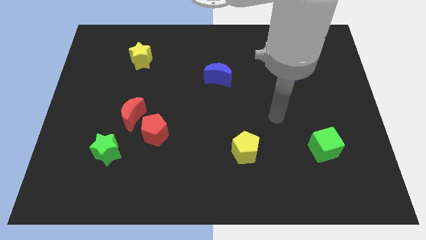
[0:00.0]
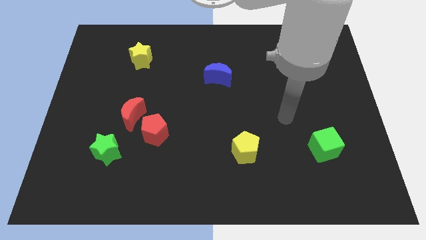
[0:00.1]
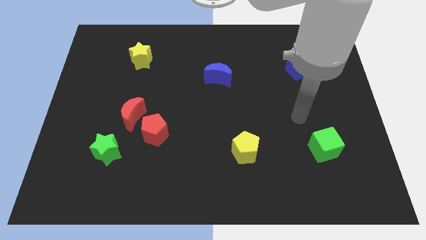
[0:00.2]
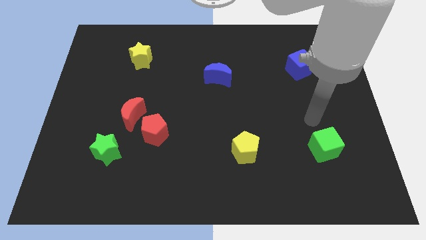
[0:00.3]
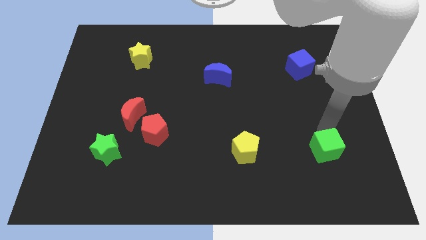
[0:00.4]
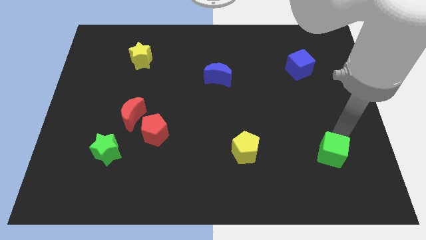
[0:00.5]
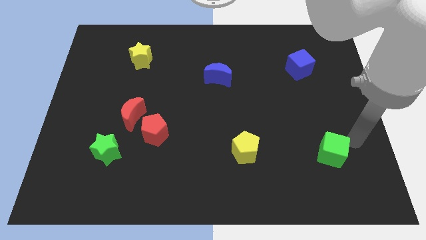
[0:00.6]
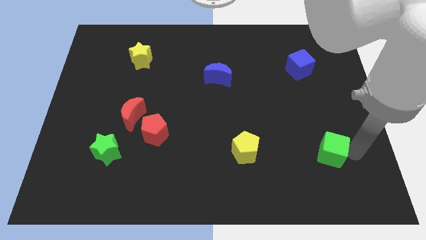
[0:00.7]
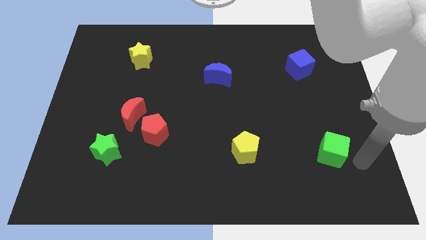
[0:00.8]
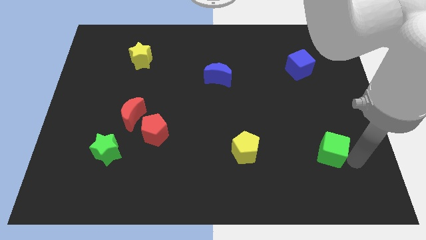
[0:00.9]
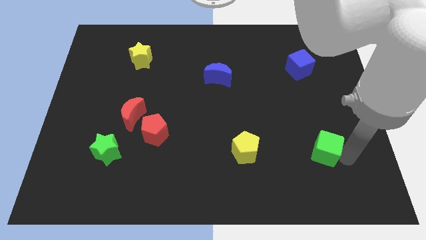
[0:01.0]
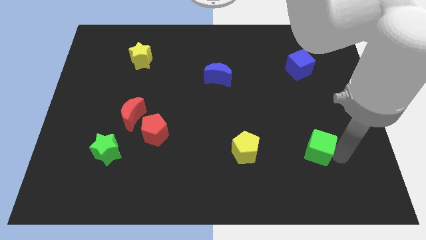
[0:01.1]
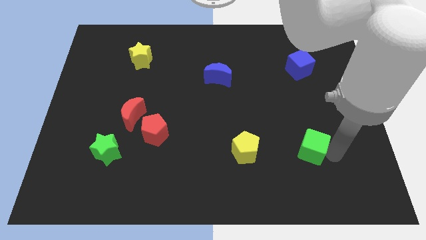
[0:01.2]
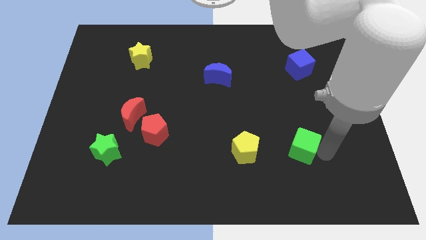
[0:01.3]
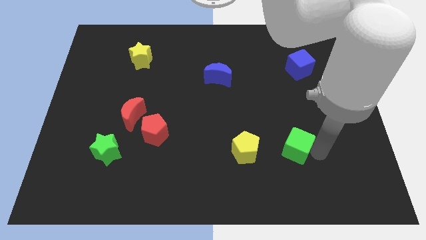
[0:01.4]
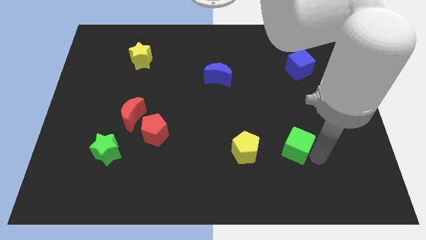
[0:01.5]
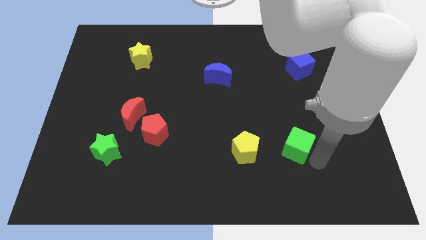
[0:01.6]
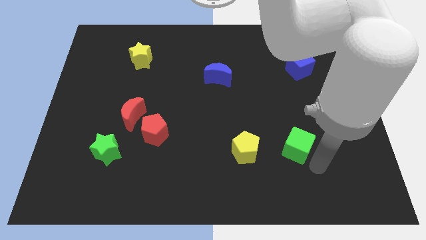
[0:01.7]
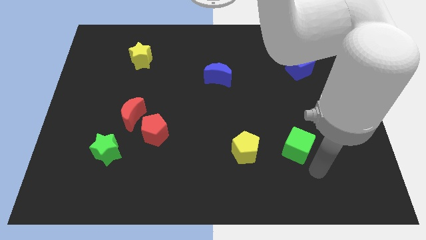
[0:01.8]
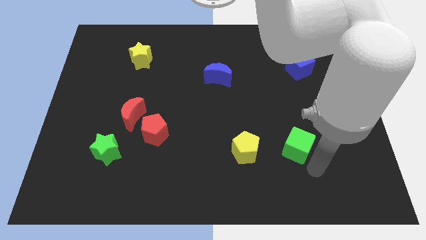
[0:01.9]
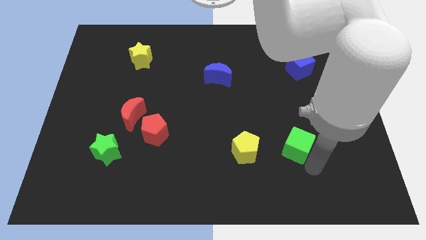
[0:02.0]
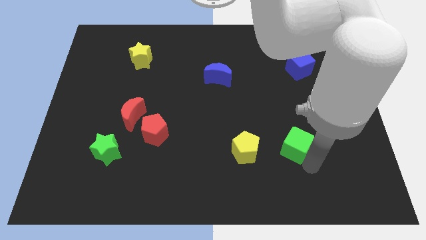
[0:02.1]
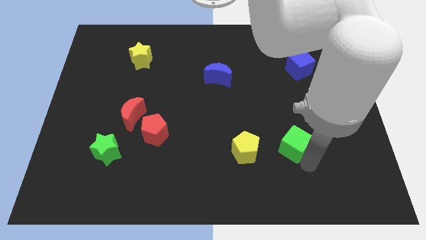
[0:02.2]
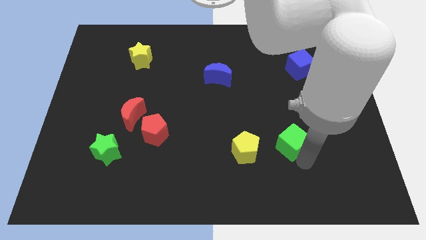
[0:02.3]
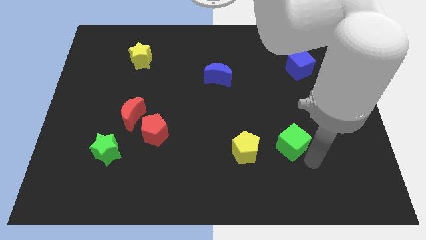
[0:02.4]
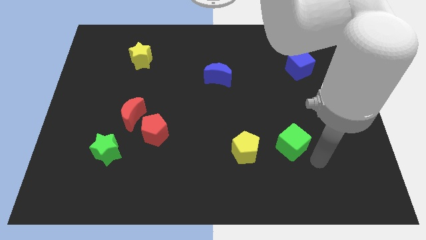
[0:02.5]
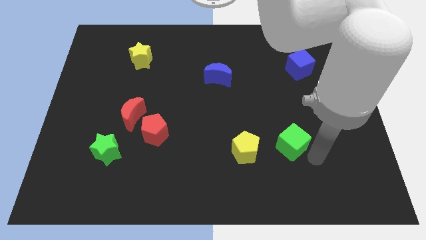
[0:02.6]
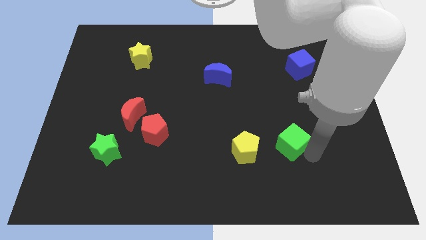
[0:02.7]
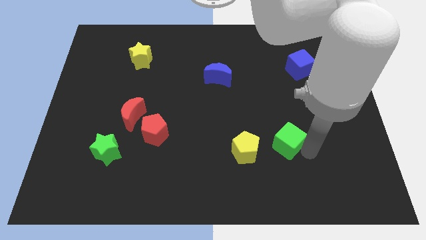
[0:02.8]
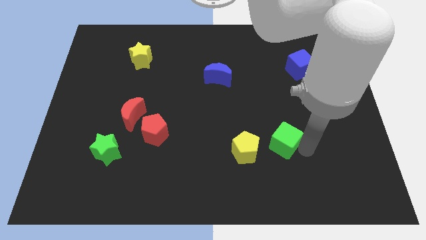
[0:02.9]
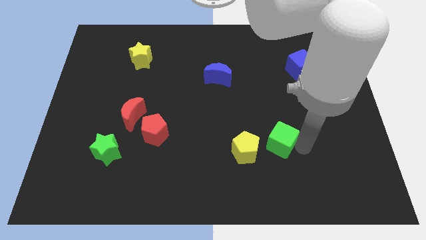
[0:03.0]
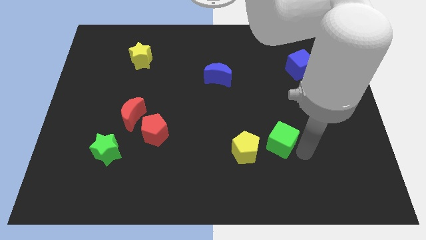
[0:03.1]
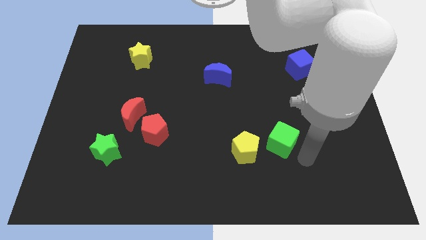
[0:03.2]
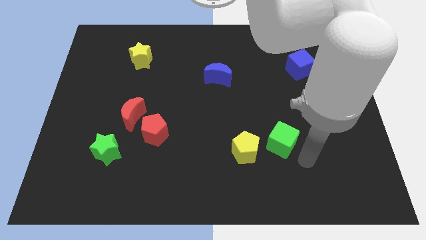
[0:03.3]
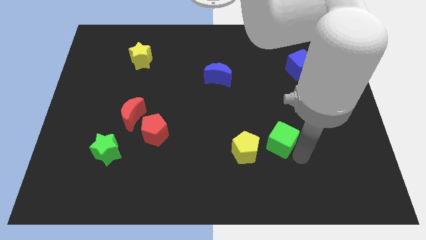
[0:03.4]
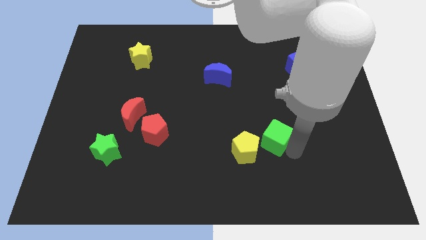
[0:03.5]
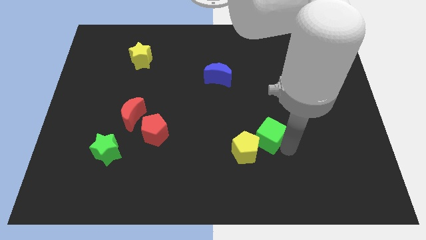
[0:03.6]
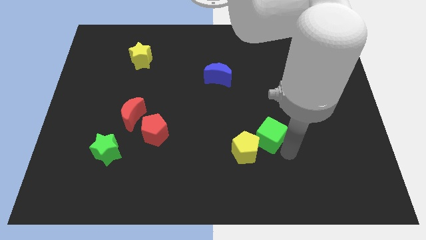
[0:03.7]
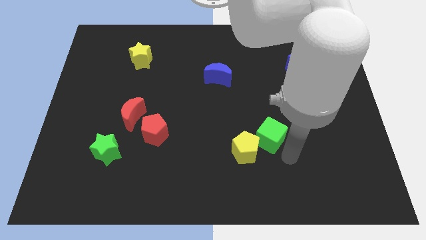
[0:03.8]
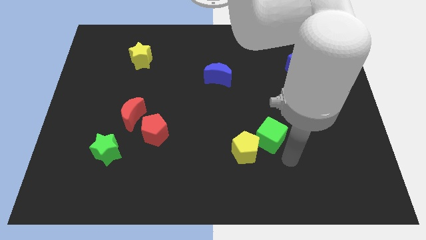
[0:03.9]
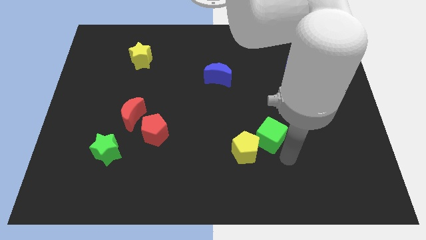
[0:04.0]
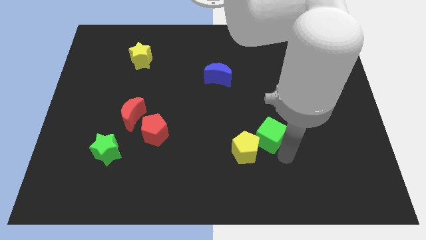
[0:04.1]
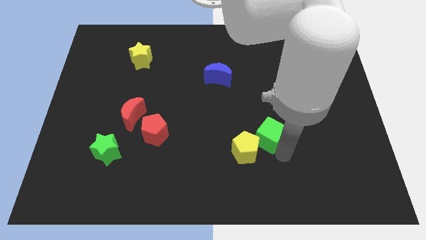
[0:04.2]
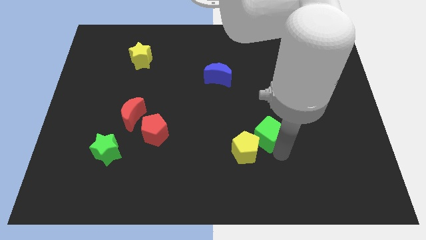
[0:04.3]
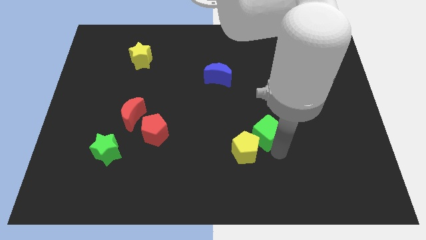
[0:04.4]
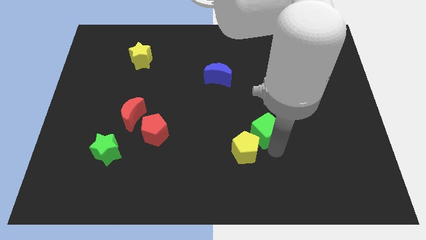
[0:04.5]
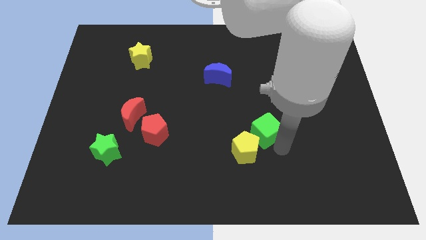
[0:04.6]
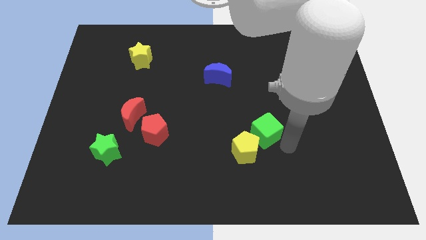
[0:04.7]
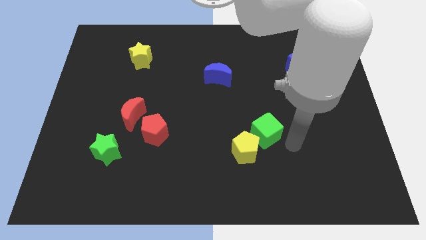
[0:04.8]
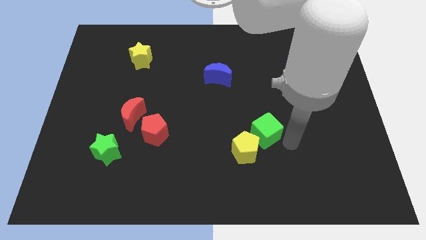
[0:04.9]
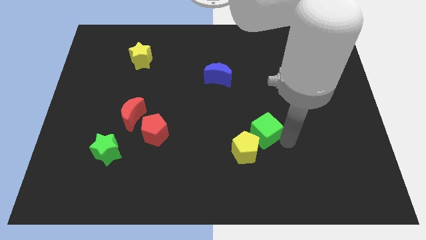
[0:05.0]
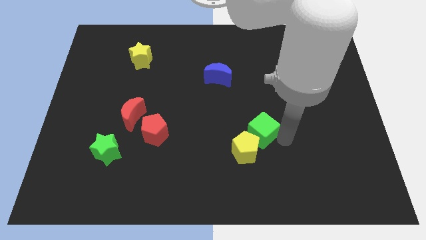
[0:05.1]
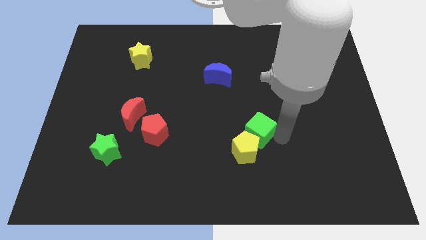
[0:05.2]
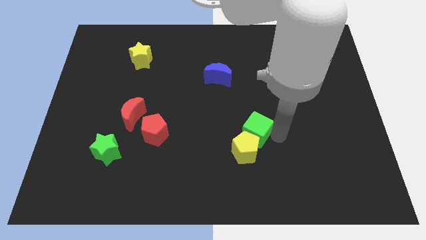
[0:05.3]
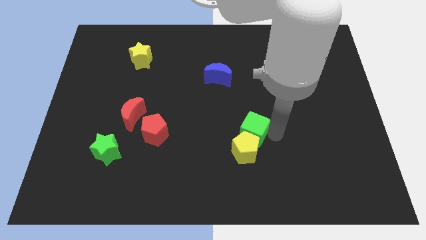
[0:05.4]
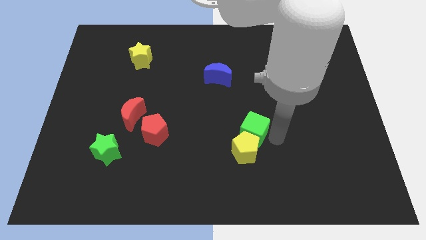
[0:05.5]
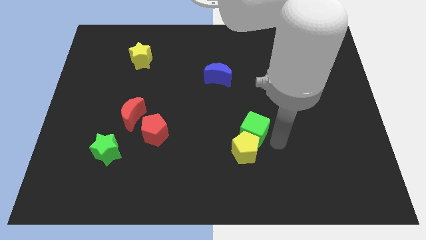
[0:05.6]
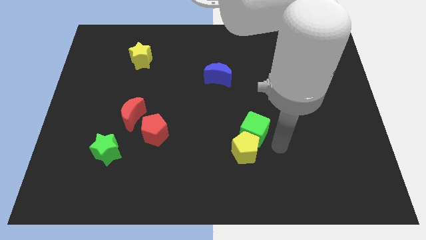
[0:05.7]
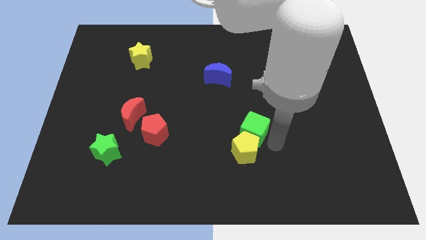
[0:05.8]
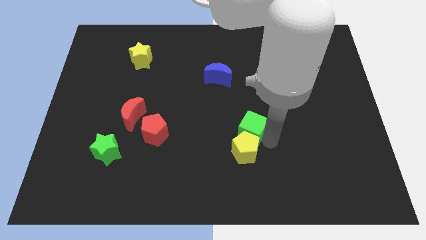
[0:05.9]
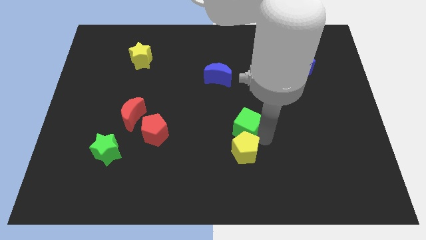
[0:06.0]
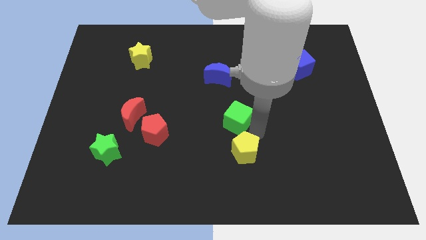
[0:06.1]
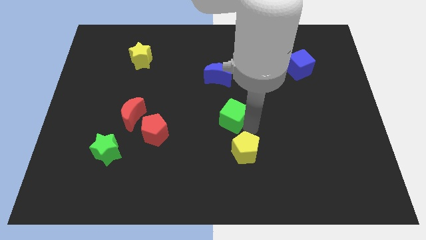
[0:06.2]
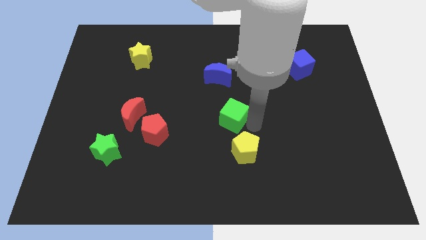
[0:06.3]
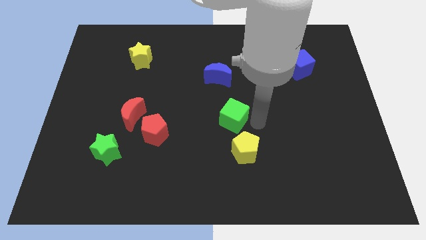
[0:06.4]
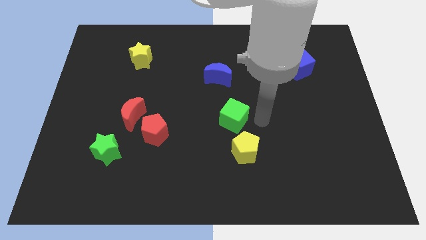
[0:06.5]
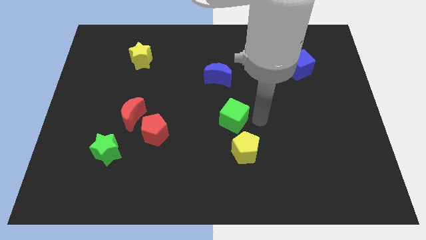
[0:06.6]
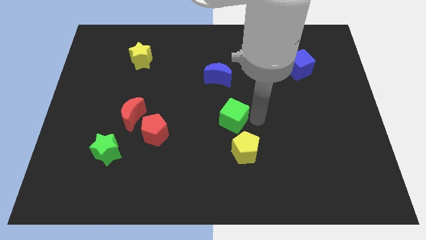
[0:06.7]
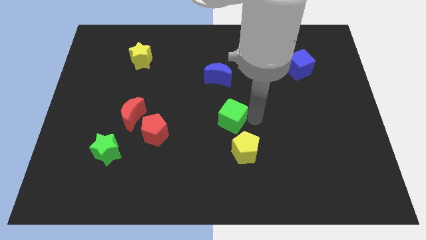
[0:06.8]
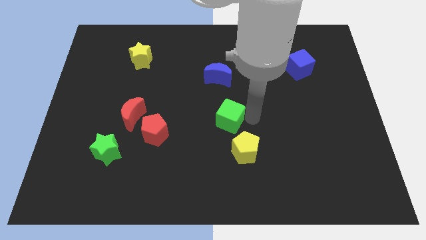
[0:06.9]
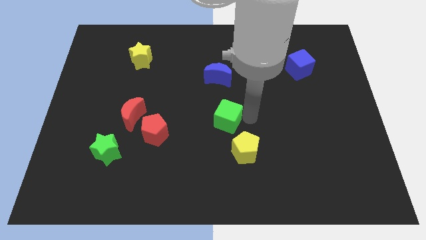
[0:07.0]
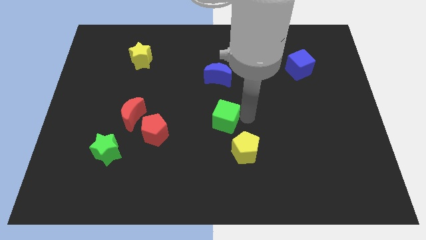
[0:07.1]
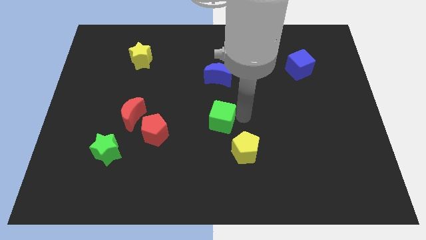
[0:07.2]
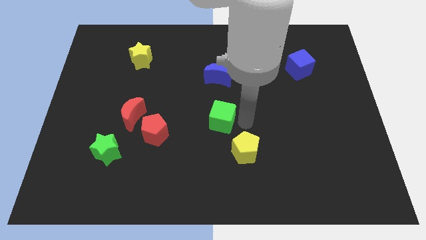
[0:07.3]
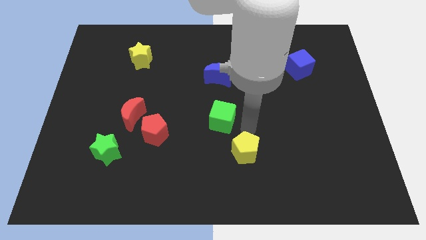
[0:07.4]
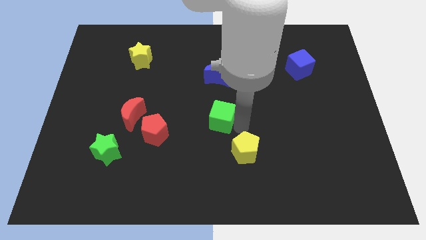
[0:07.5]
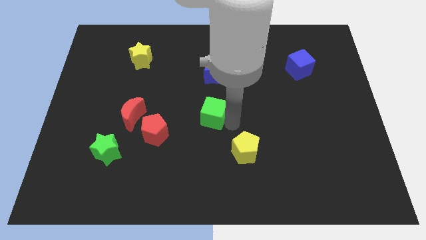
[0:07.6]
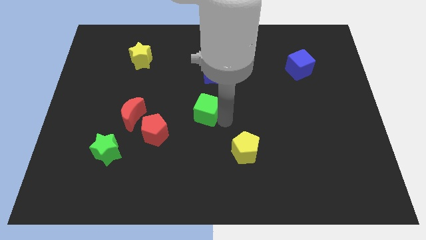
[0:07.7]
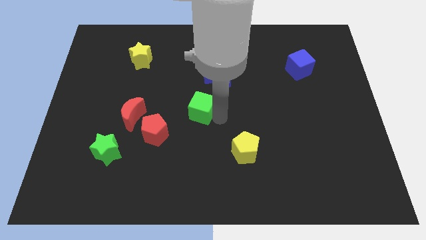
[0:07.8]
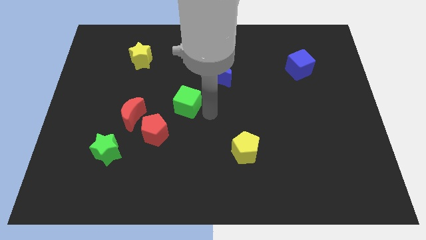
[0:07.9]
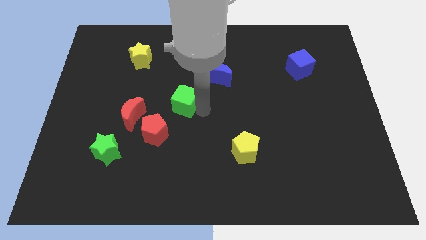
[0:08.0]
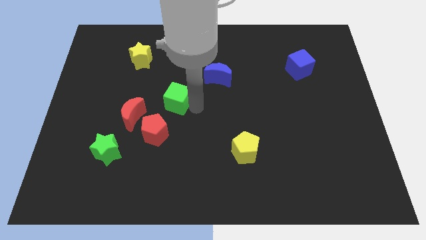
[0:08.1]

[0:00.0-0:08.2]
put the green cube to the top right of the red moon

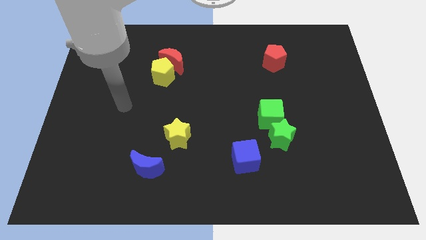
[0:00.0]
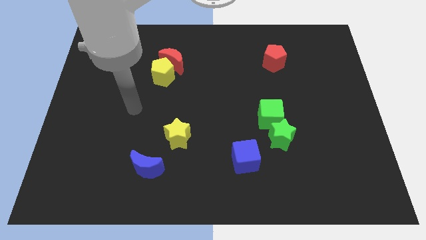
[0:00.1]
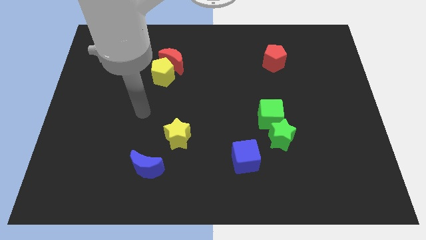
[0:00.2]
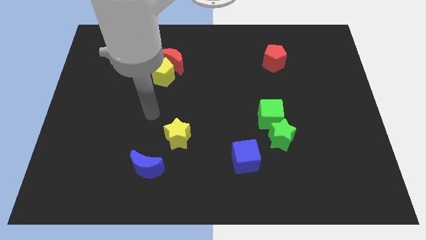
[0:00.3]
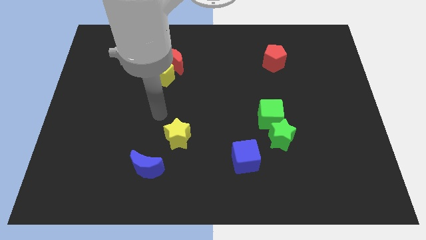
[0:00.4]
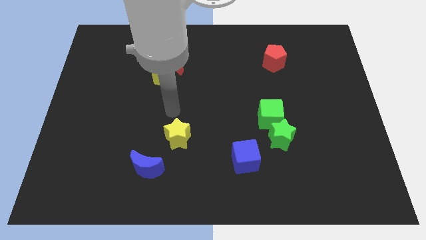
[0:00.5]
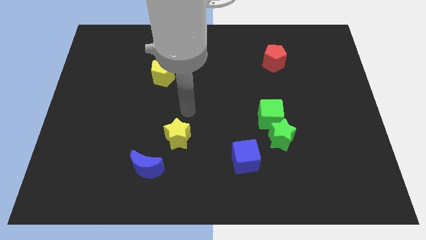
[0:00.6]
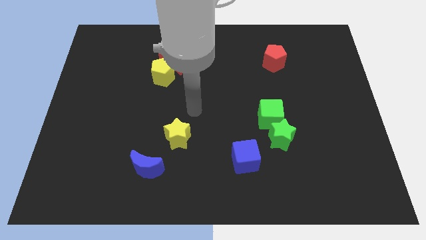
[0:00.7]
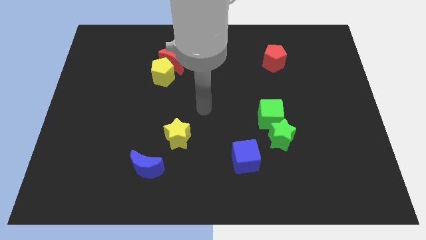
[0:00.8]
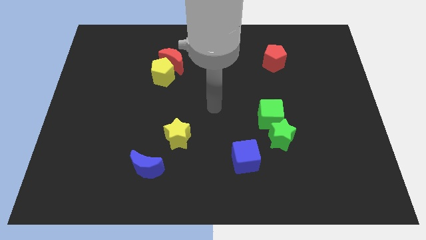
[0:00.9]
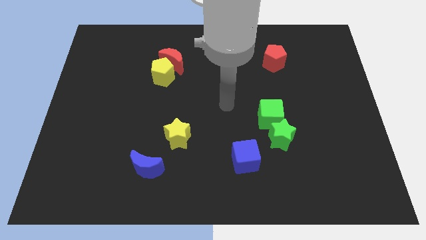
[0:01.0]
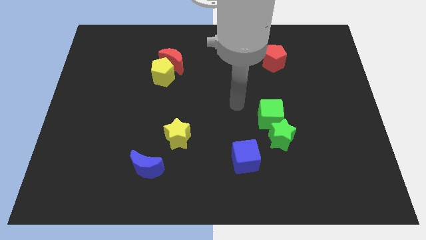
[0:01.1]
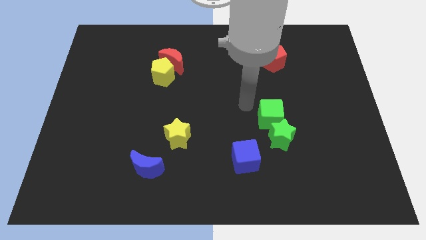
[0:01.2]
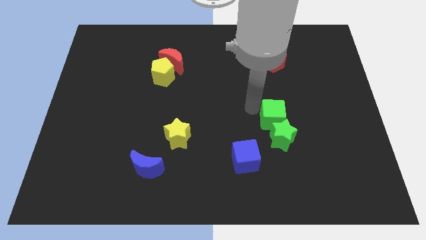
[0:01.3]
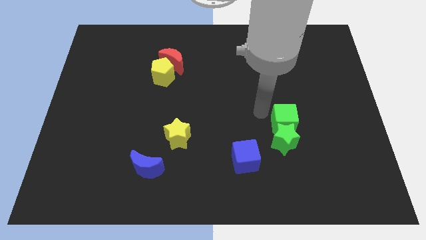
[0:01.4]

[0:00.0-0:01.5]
slide the green star just right of the blue cube
